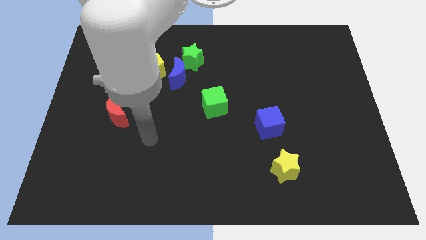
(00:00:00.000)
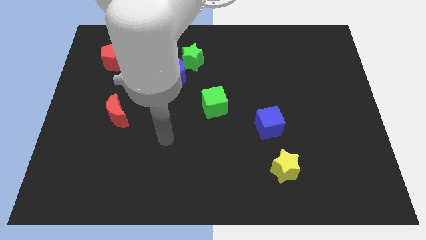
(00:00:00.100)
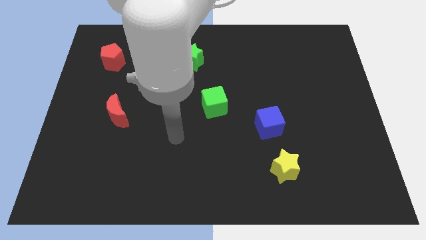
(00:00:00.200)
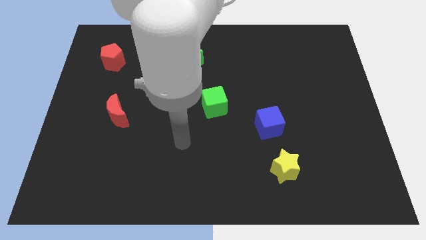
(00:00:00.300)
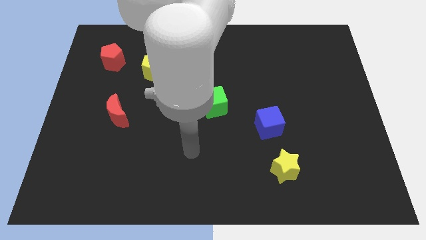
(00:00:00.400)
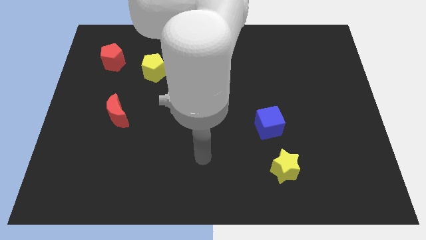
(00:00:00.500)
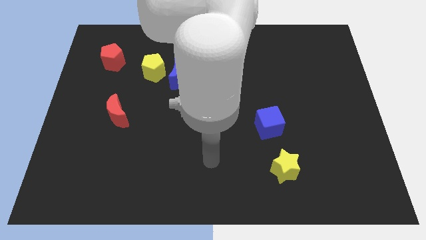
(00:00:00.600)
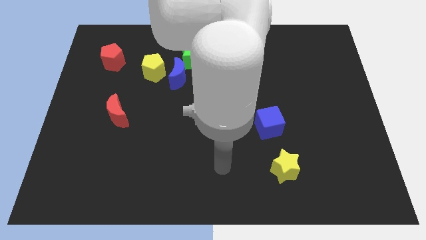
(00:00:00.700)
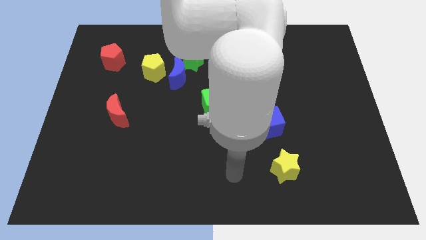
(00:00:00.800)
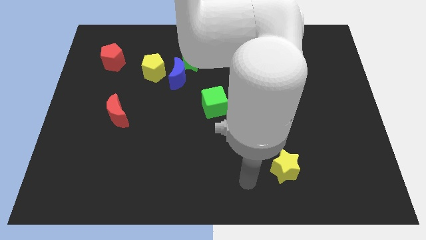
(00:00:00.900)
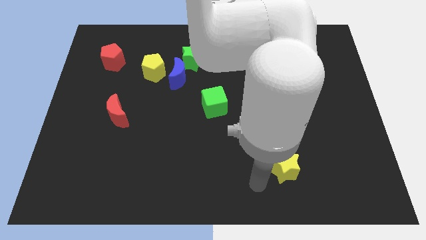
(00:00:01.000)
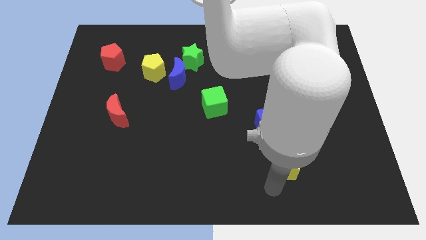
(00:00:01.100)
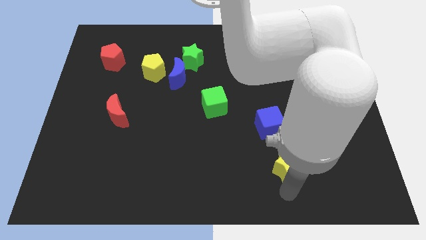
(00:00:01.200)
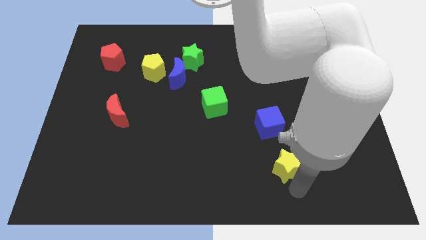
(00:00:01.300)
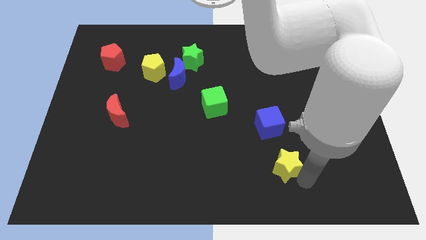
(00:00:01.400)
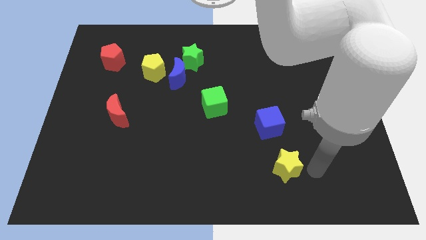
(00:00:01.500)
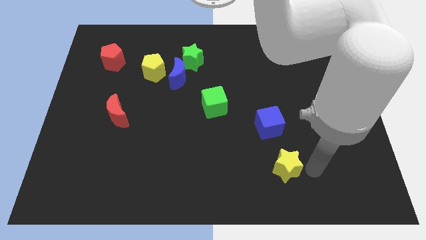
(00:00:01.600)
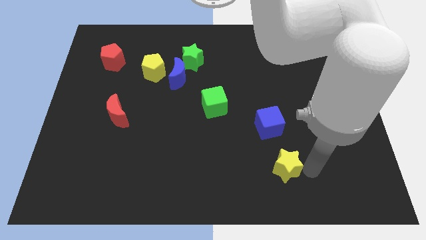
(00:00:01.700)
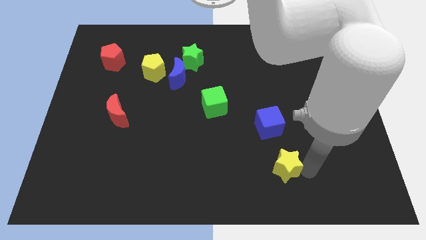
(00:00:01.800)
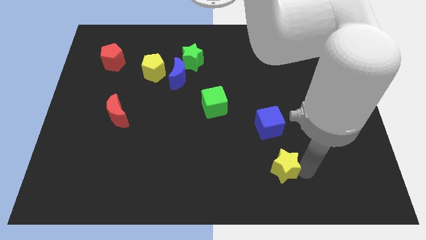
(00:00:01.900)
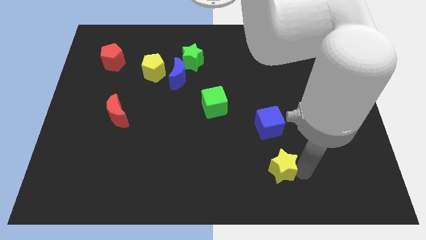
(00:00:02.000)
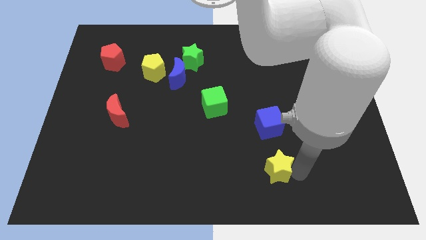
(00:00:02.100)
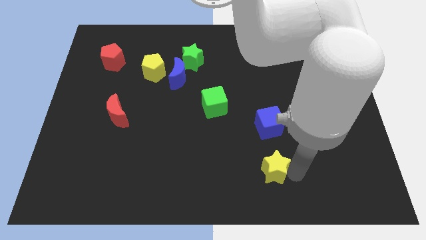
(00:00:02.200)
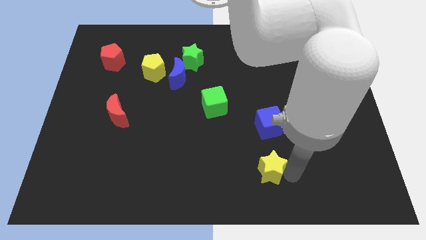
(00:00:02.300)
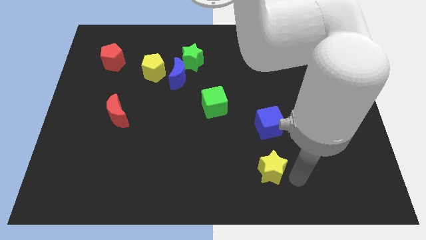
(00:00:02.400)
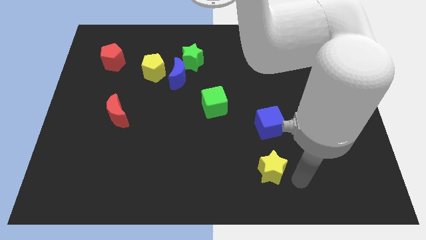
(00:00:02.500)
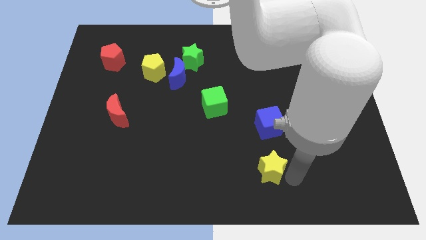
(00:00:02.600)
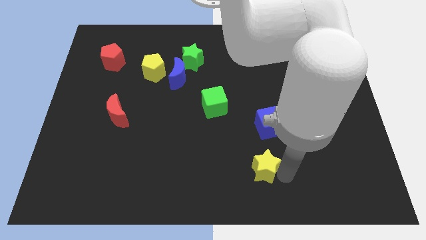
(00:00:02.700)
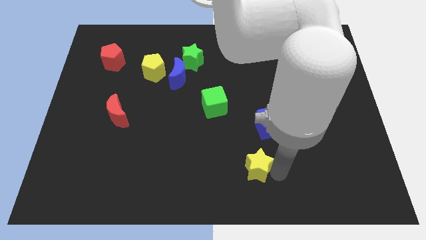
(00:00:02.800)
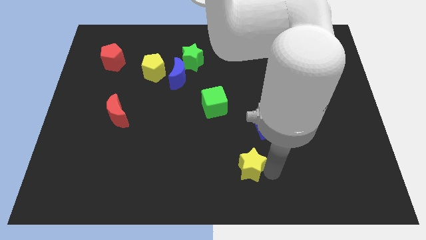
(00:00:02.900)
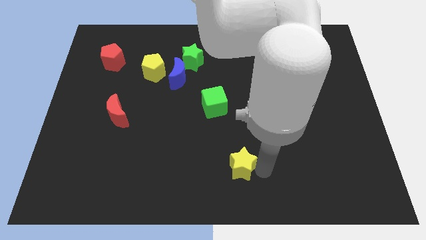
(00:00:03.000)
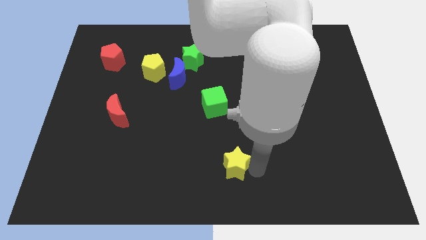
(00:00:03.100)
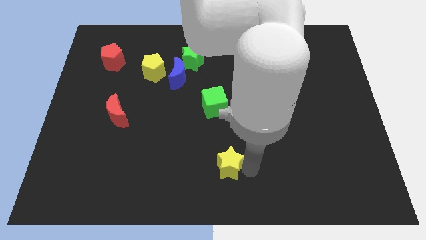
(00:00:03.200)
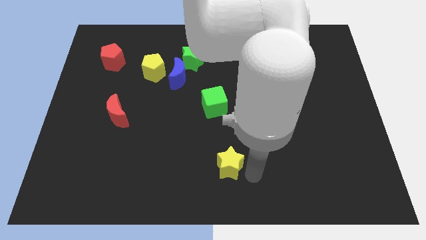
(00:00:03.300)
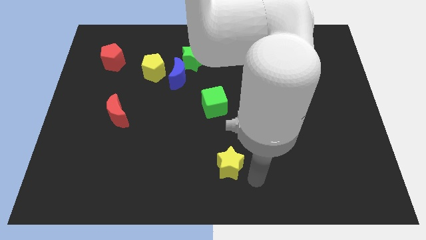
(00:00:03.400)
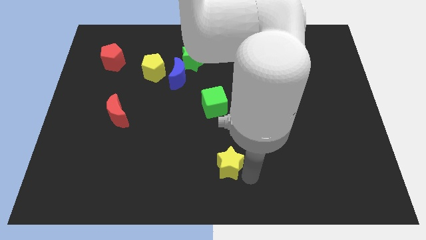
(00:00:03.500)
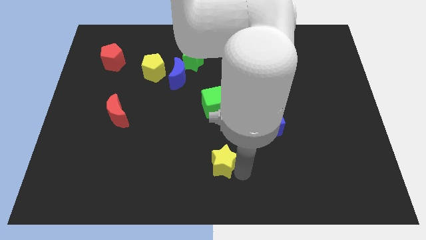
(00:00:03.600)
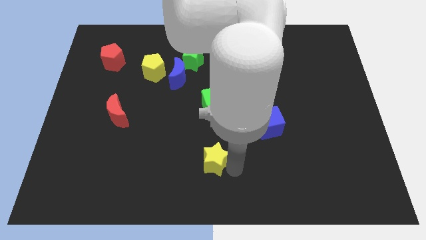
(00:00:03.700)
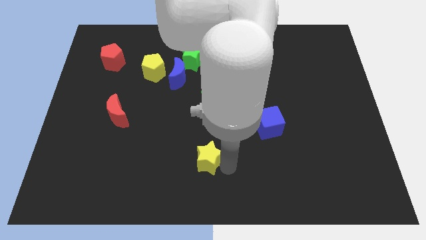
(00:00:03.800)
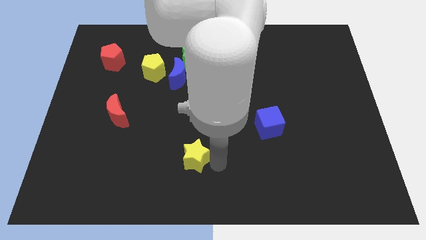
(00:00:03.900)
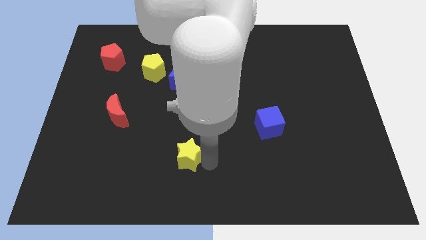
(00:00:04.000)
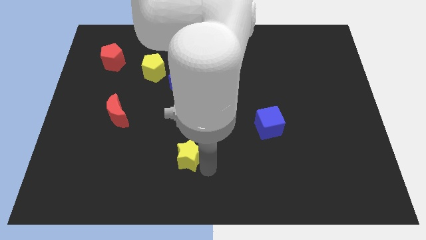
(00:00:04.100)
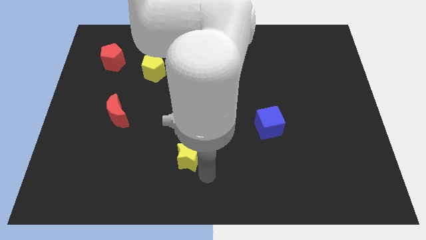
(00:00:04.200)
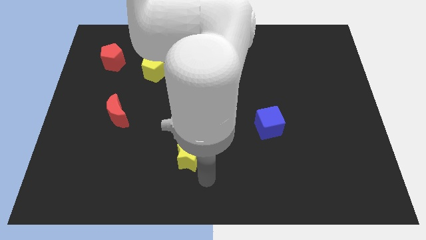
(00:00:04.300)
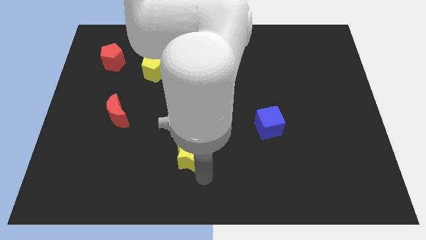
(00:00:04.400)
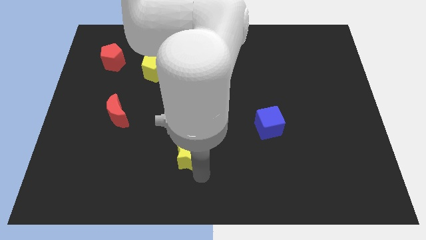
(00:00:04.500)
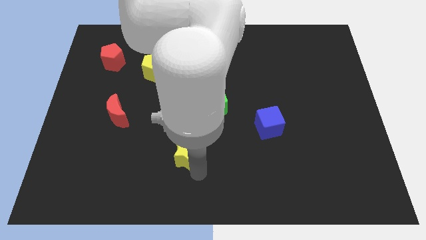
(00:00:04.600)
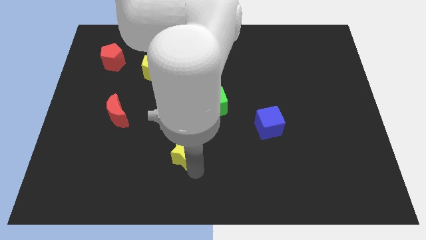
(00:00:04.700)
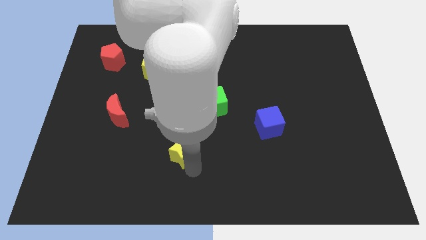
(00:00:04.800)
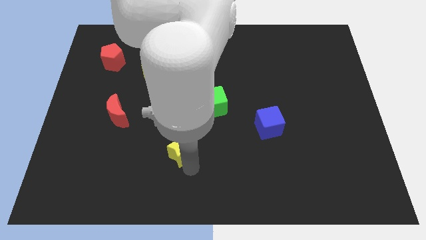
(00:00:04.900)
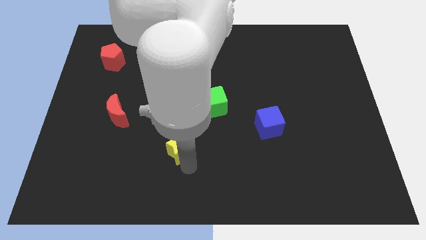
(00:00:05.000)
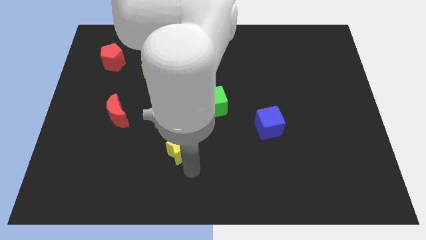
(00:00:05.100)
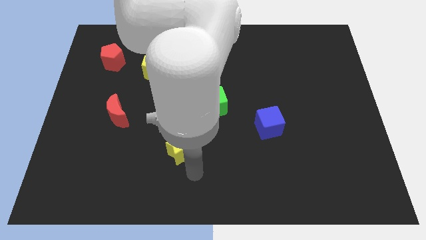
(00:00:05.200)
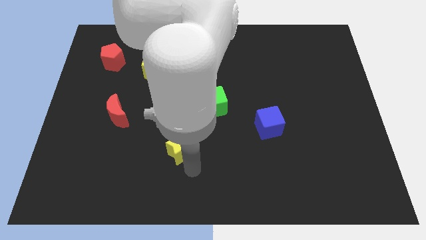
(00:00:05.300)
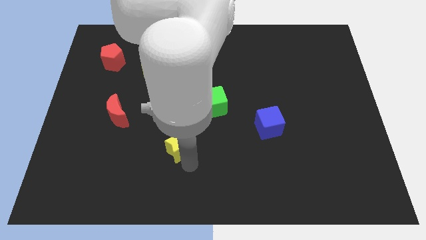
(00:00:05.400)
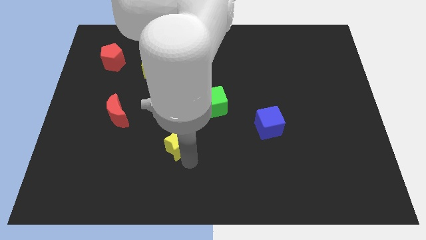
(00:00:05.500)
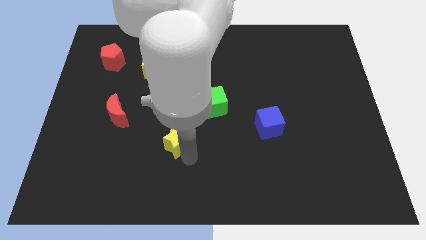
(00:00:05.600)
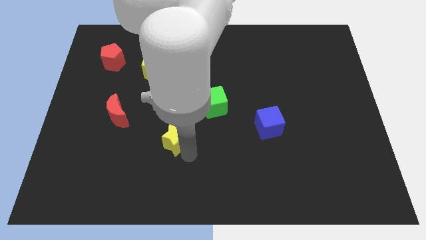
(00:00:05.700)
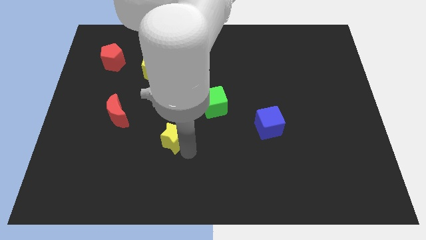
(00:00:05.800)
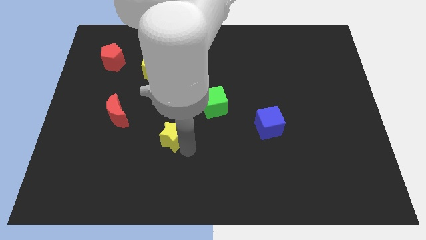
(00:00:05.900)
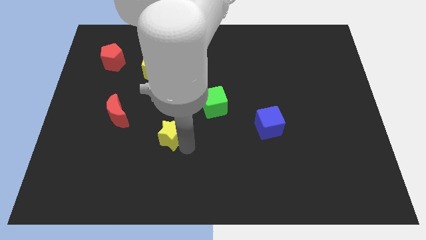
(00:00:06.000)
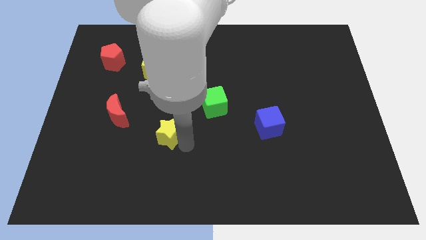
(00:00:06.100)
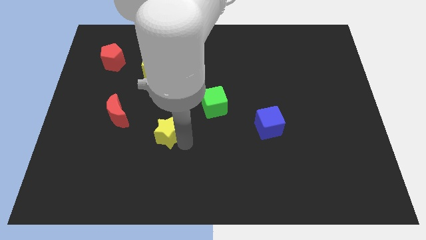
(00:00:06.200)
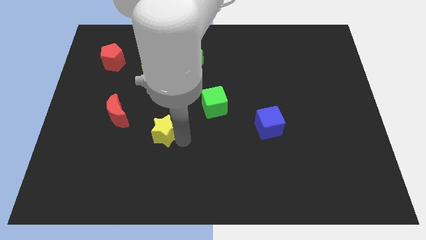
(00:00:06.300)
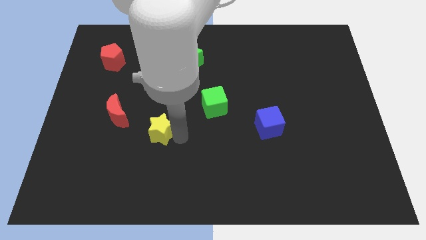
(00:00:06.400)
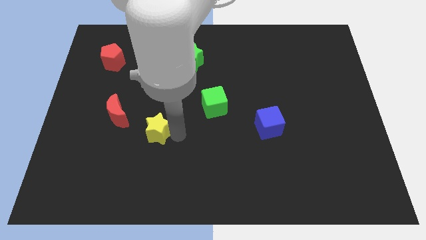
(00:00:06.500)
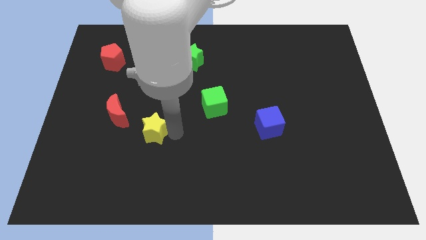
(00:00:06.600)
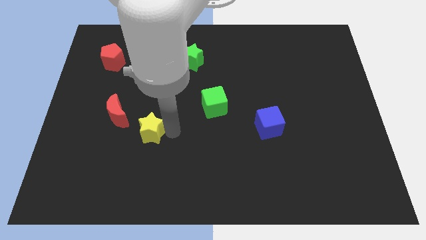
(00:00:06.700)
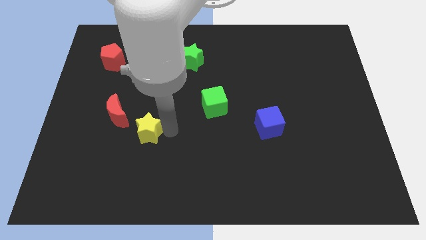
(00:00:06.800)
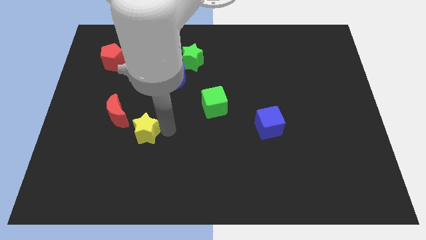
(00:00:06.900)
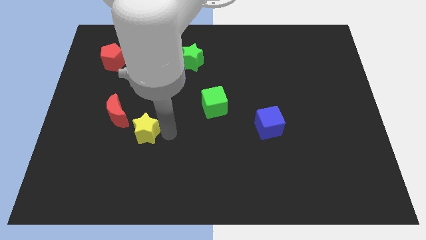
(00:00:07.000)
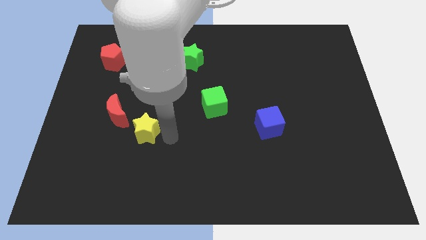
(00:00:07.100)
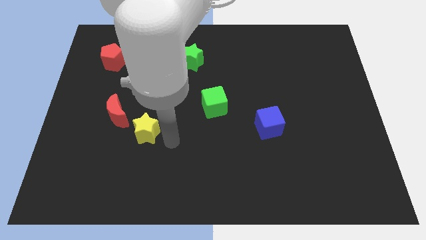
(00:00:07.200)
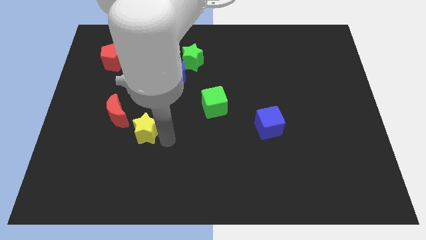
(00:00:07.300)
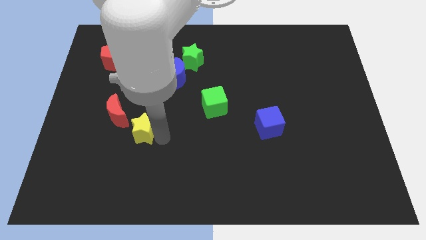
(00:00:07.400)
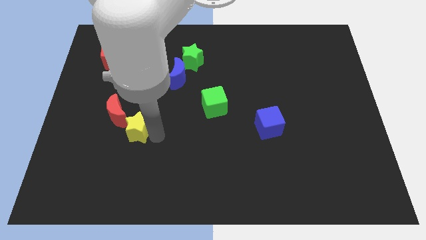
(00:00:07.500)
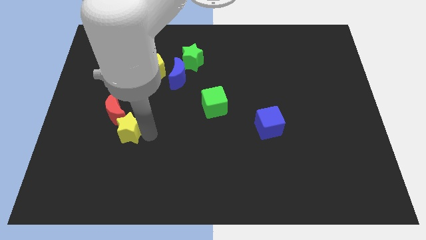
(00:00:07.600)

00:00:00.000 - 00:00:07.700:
push the yellow star next to the red moon
